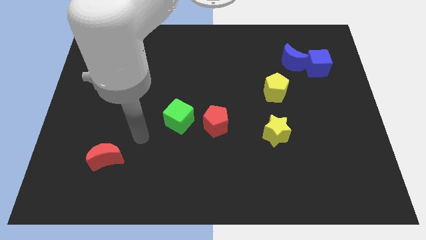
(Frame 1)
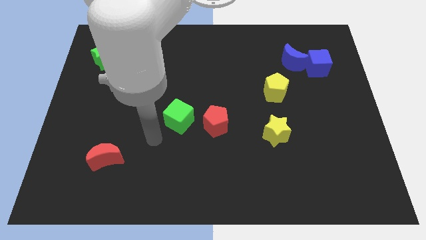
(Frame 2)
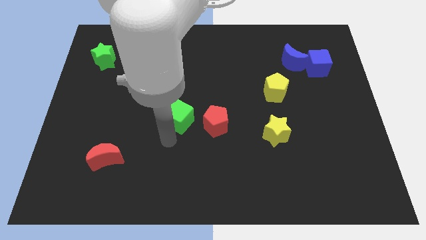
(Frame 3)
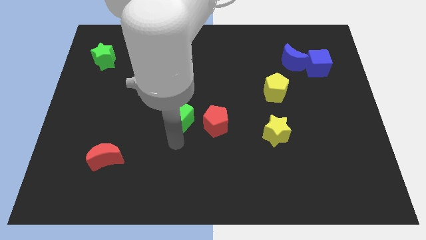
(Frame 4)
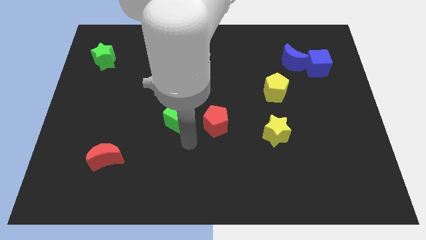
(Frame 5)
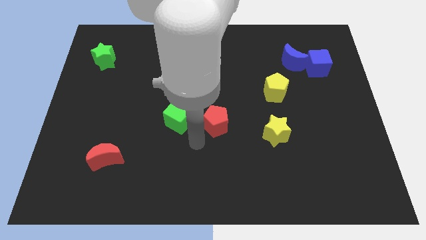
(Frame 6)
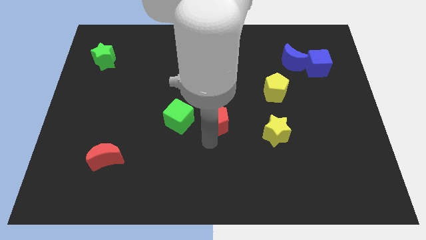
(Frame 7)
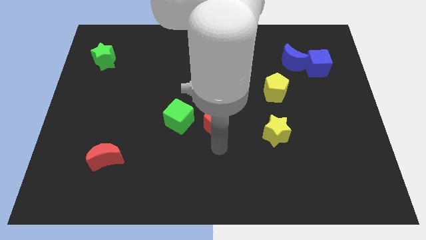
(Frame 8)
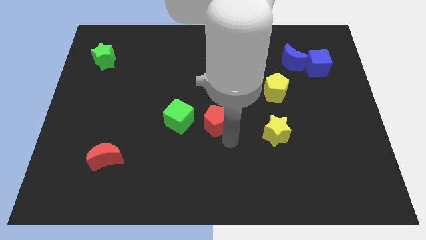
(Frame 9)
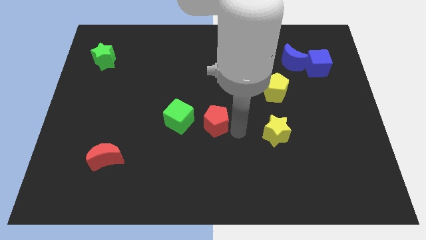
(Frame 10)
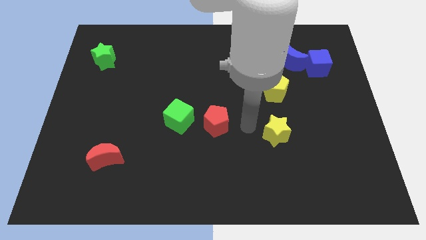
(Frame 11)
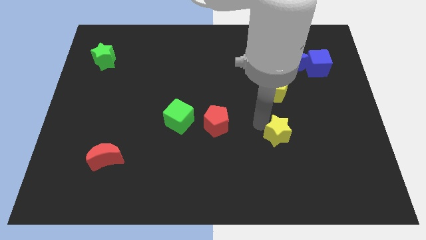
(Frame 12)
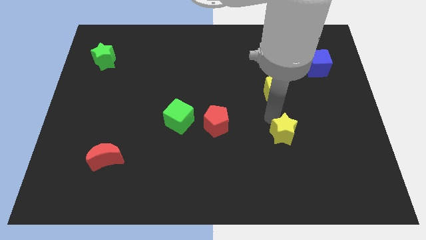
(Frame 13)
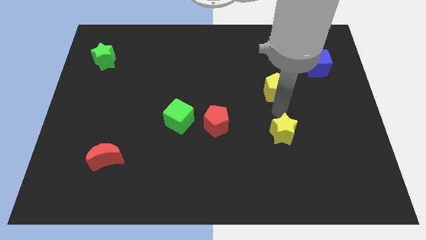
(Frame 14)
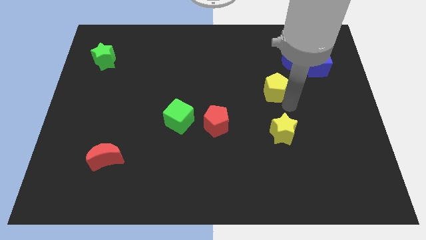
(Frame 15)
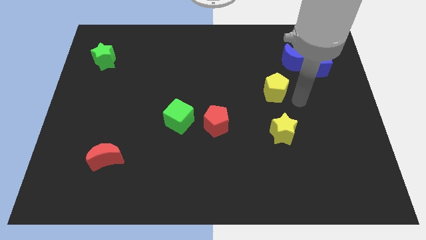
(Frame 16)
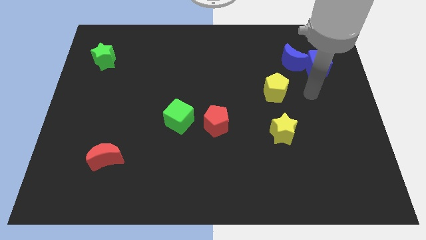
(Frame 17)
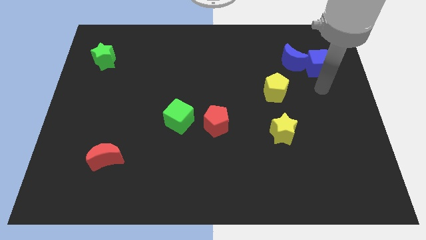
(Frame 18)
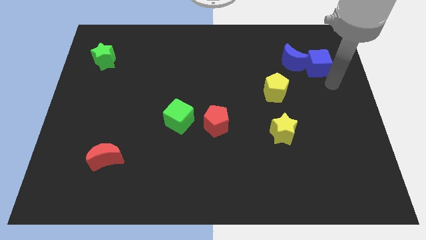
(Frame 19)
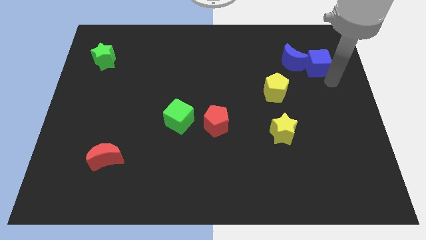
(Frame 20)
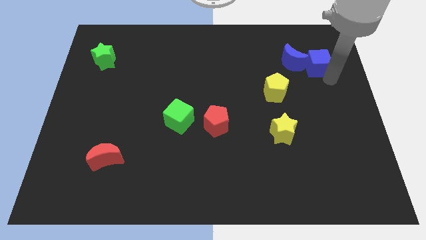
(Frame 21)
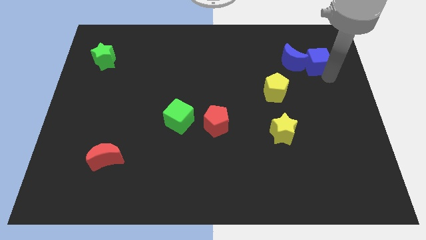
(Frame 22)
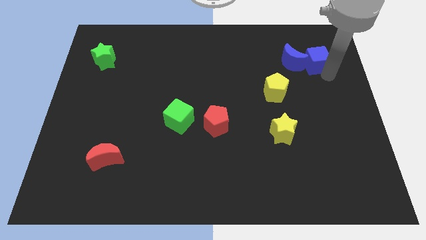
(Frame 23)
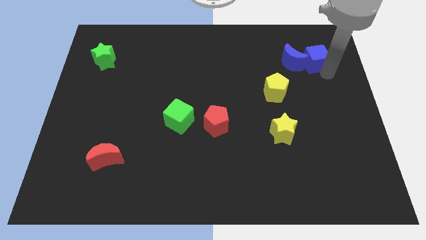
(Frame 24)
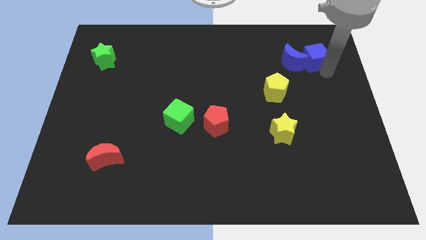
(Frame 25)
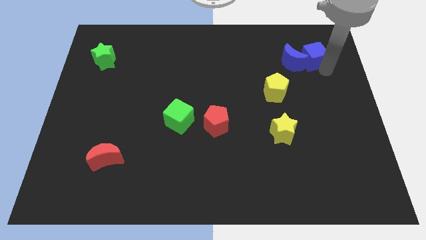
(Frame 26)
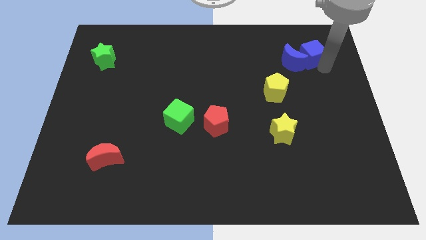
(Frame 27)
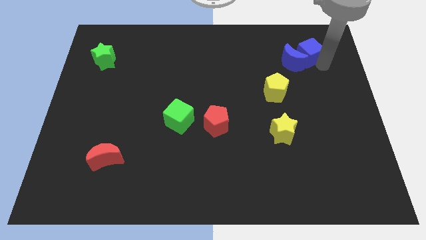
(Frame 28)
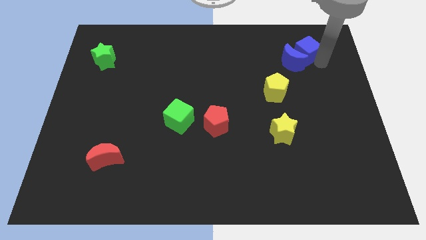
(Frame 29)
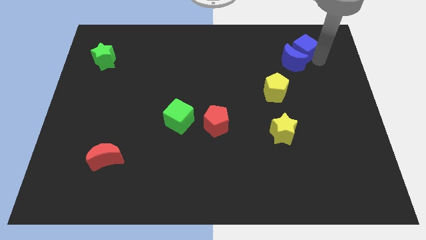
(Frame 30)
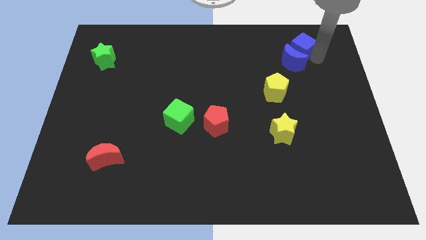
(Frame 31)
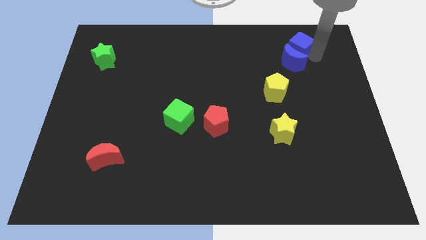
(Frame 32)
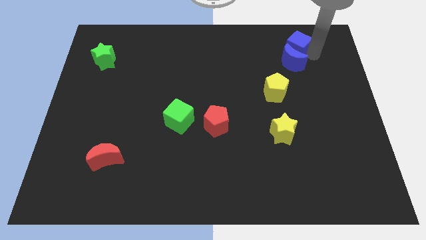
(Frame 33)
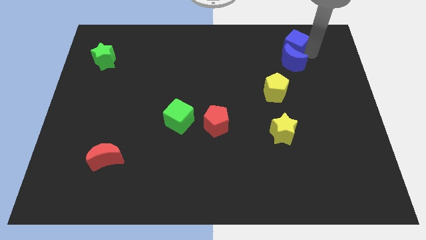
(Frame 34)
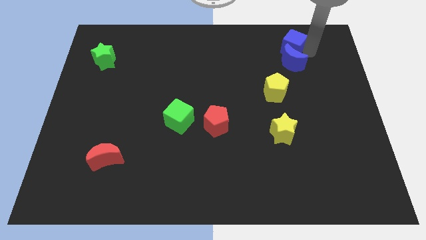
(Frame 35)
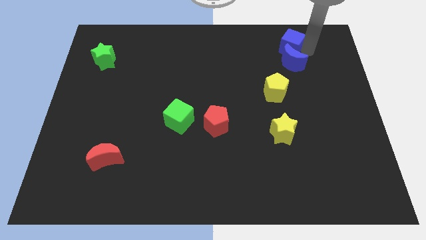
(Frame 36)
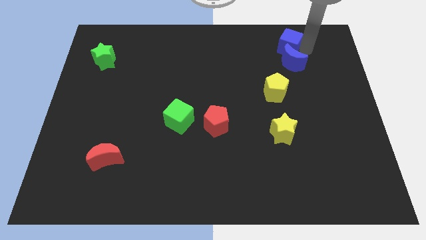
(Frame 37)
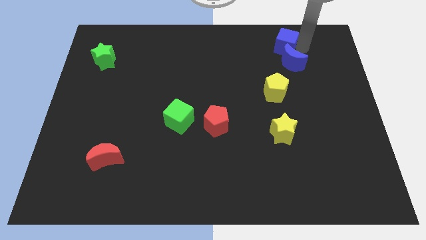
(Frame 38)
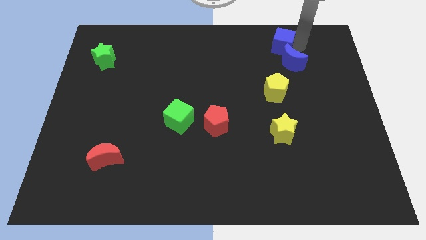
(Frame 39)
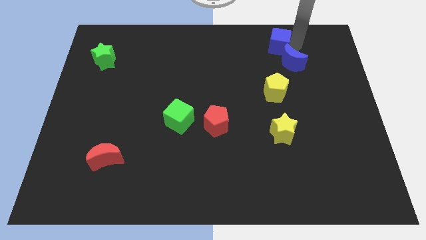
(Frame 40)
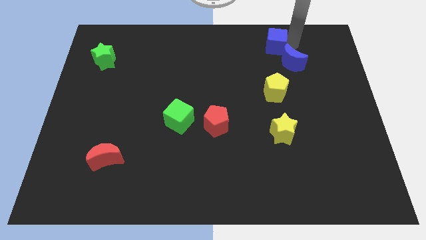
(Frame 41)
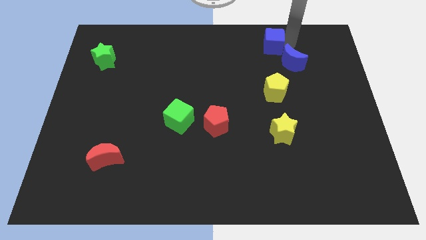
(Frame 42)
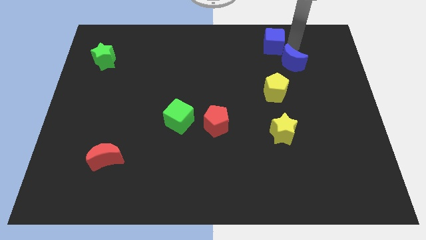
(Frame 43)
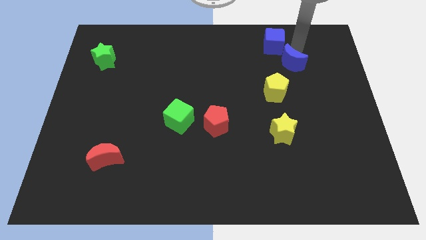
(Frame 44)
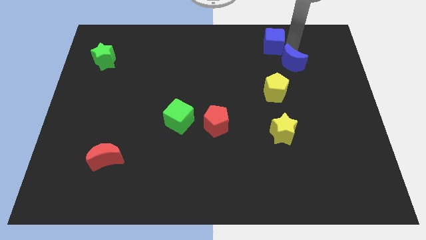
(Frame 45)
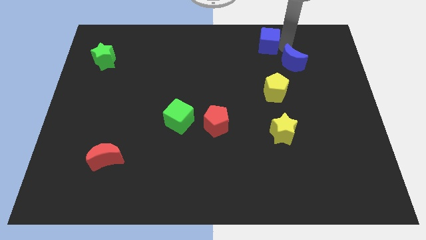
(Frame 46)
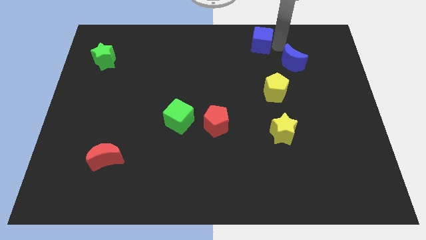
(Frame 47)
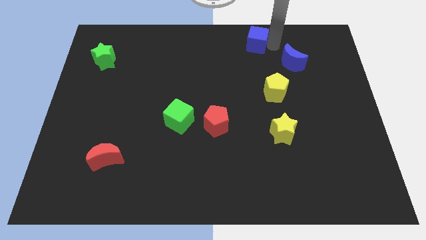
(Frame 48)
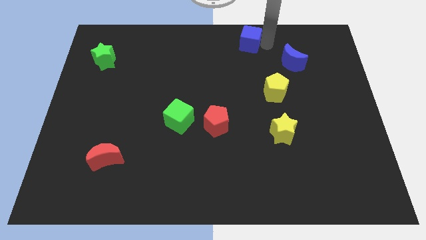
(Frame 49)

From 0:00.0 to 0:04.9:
put the blue cube to the top side
